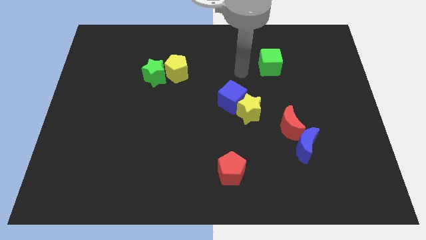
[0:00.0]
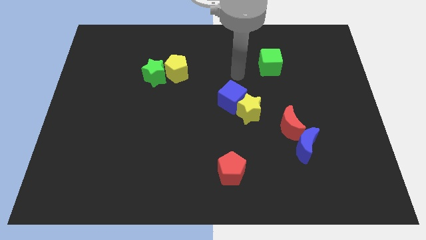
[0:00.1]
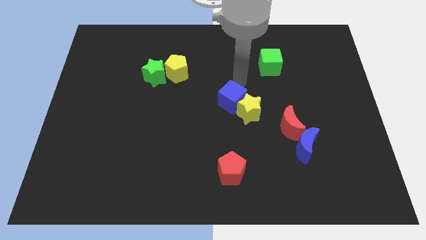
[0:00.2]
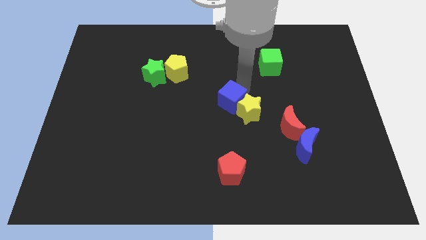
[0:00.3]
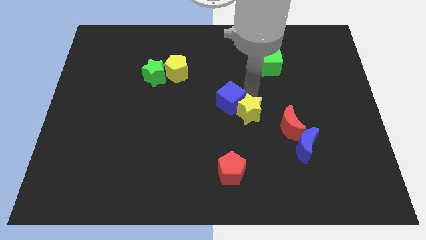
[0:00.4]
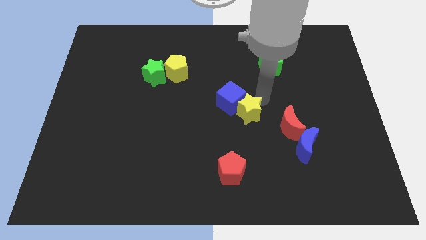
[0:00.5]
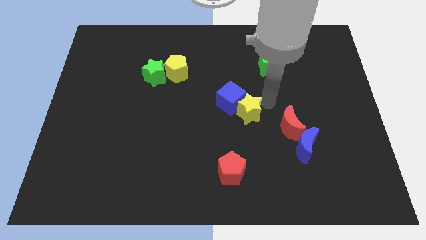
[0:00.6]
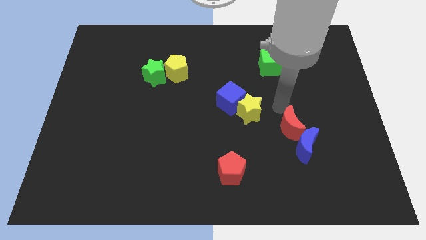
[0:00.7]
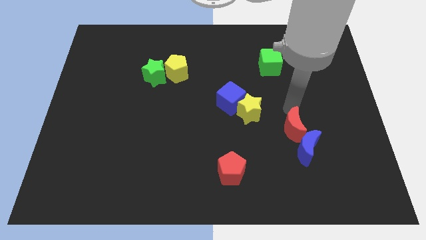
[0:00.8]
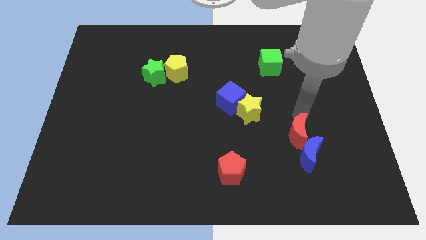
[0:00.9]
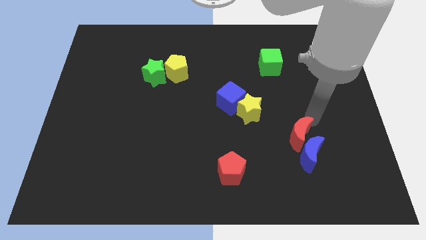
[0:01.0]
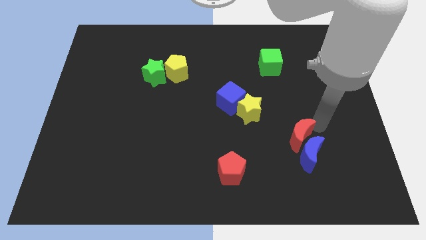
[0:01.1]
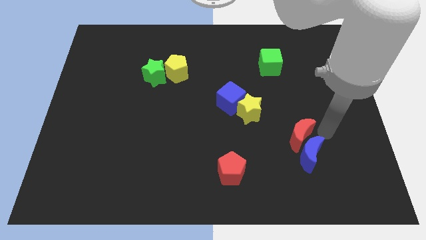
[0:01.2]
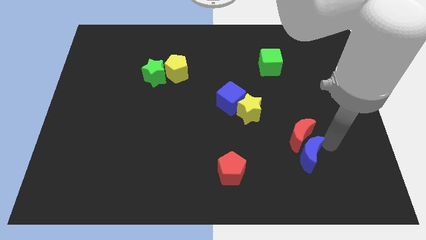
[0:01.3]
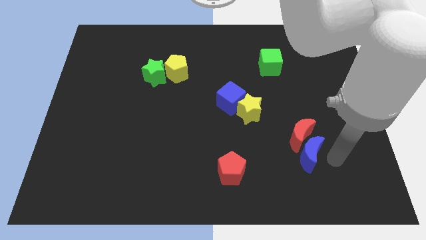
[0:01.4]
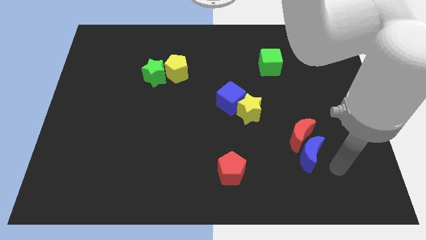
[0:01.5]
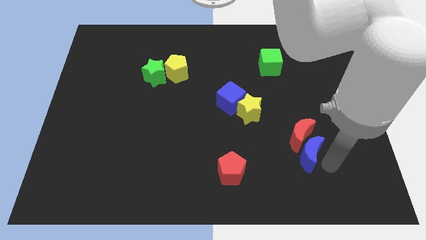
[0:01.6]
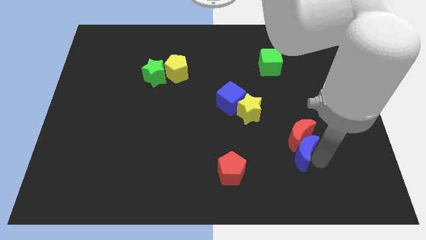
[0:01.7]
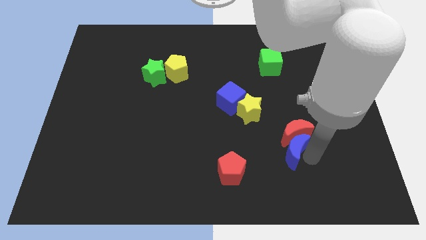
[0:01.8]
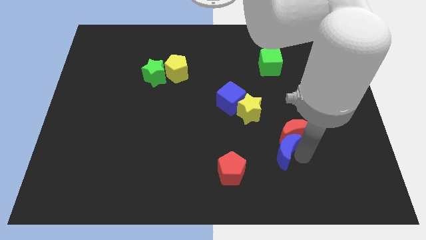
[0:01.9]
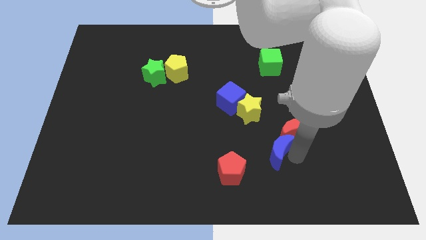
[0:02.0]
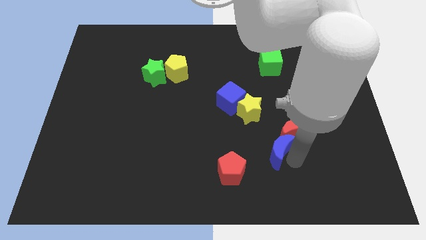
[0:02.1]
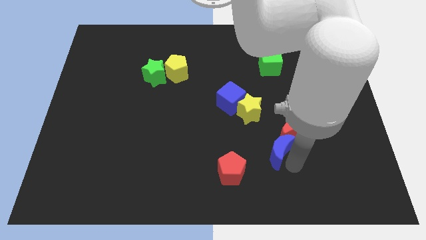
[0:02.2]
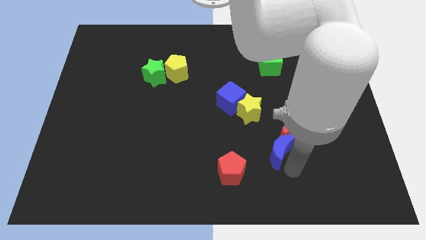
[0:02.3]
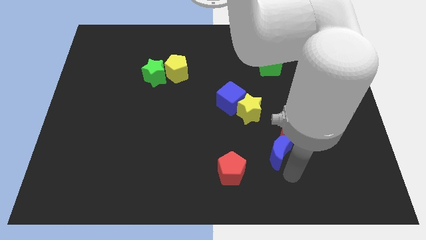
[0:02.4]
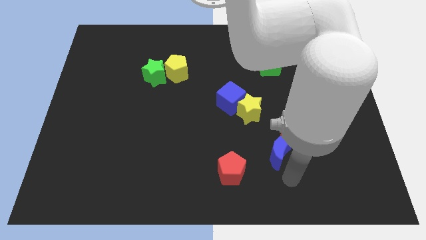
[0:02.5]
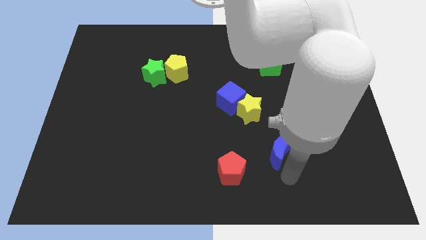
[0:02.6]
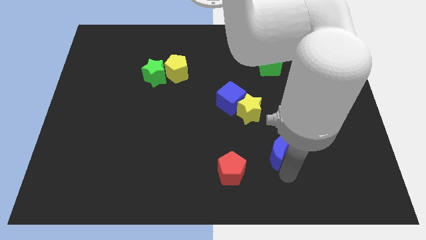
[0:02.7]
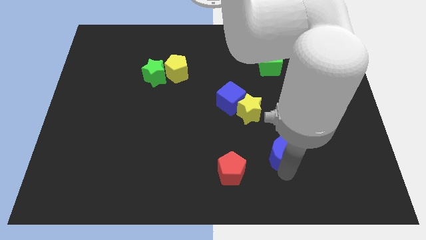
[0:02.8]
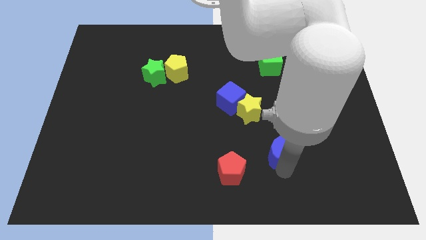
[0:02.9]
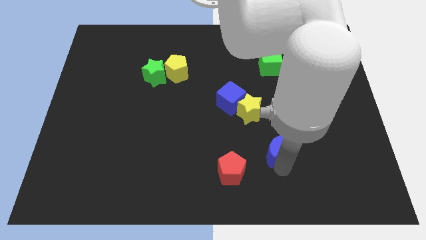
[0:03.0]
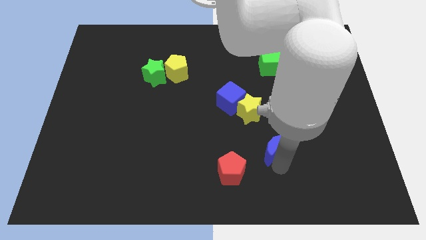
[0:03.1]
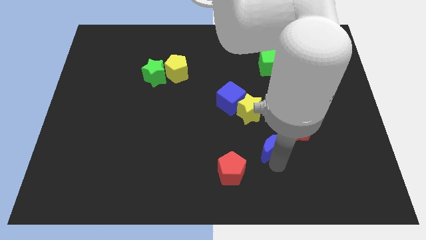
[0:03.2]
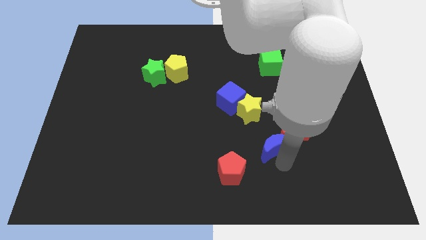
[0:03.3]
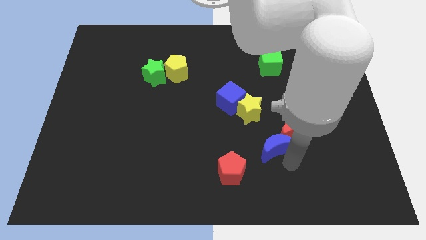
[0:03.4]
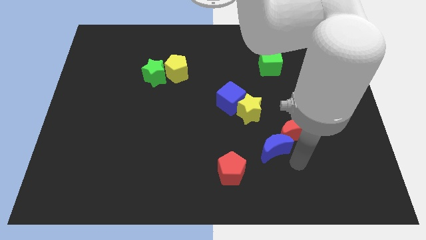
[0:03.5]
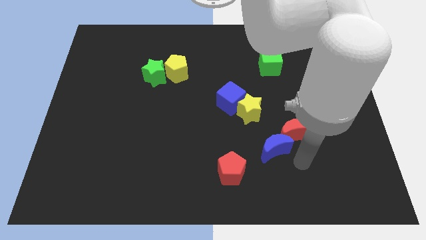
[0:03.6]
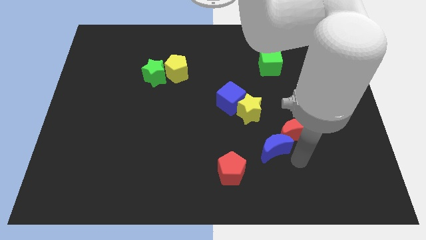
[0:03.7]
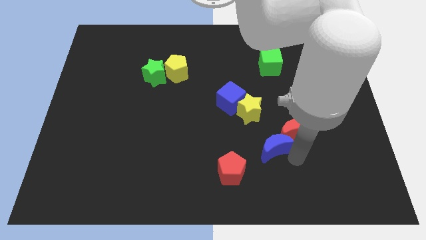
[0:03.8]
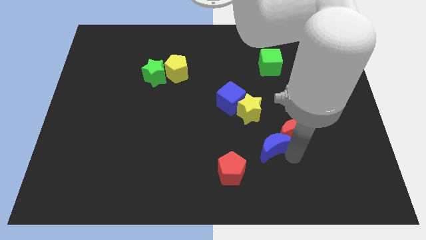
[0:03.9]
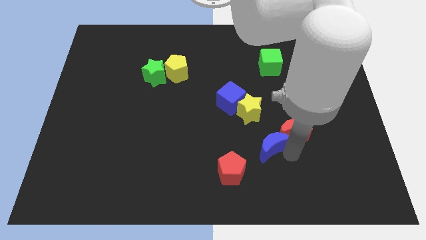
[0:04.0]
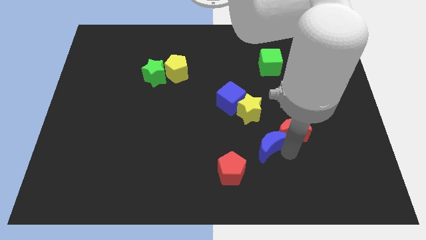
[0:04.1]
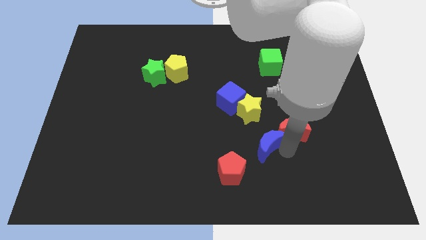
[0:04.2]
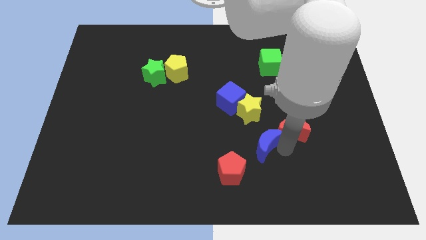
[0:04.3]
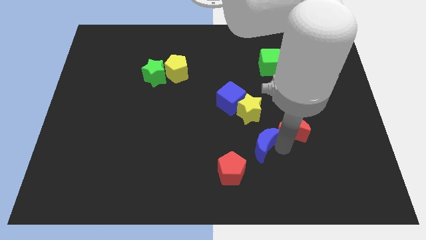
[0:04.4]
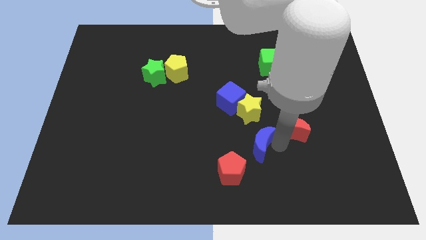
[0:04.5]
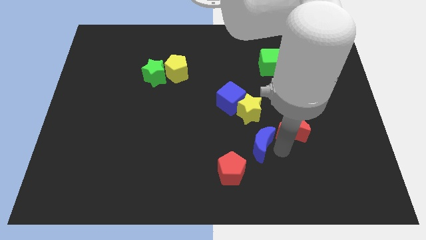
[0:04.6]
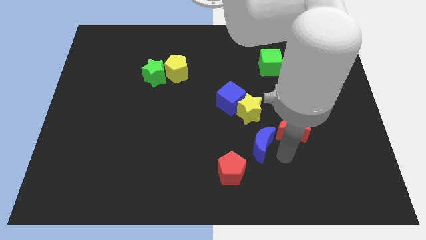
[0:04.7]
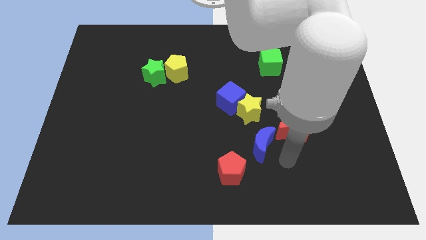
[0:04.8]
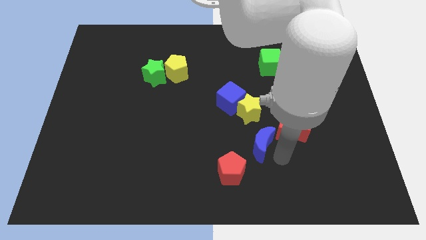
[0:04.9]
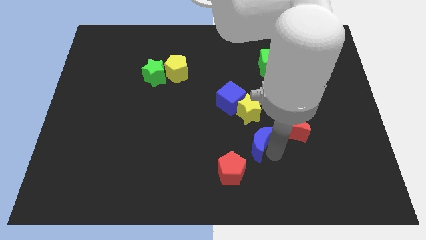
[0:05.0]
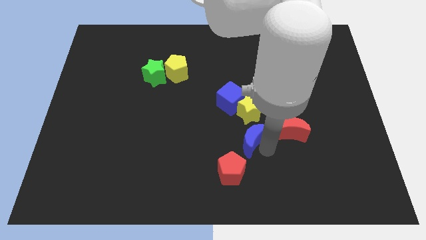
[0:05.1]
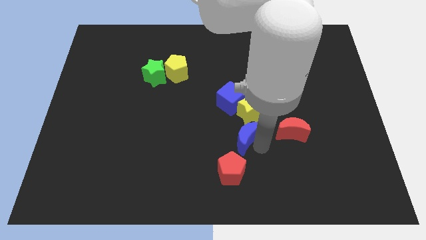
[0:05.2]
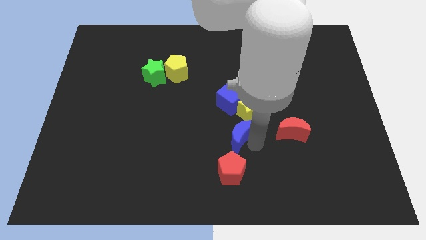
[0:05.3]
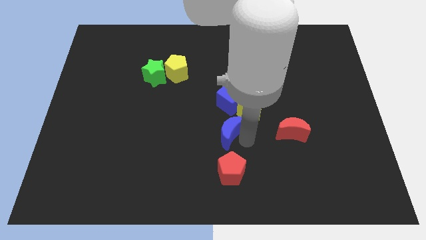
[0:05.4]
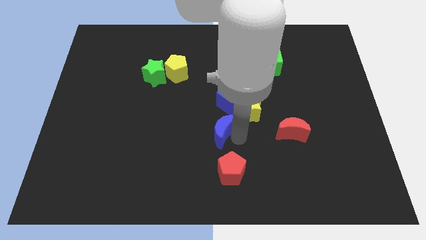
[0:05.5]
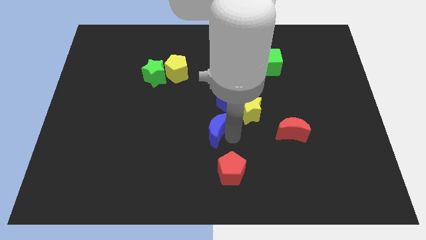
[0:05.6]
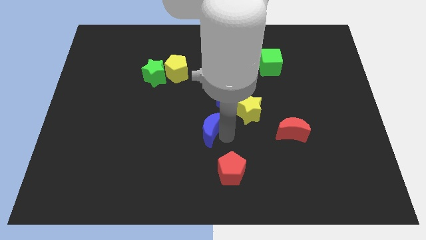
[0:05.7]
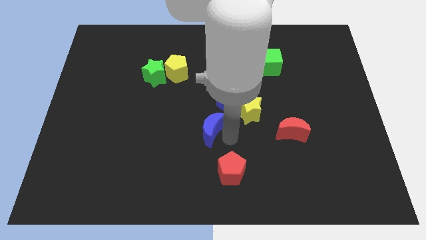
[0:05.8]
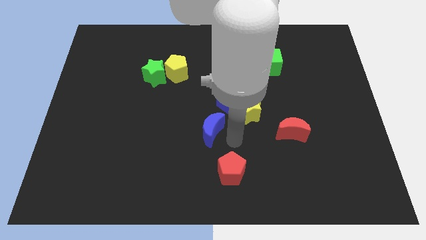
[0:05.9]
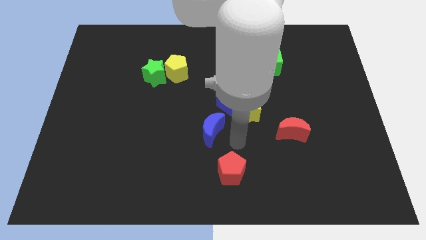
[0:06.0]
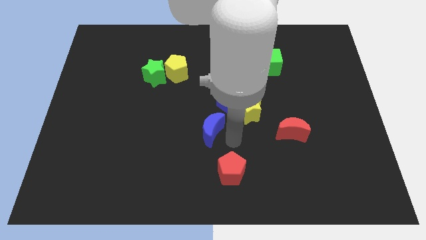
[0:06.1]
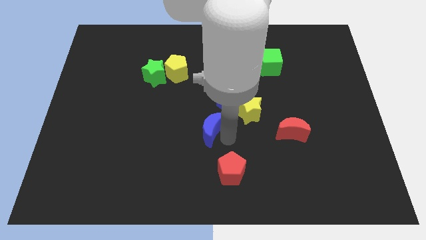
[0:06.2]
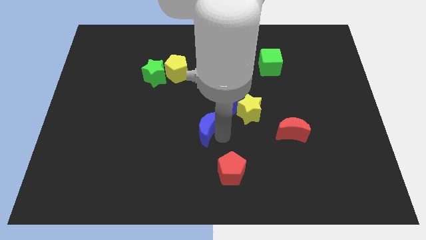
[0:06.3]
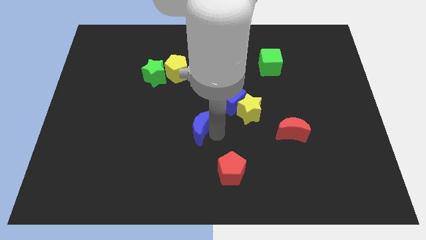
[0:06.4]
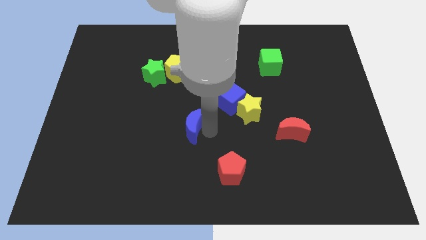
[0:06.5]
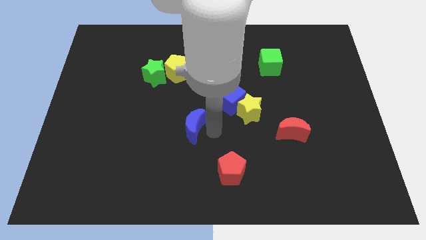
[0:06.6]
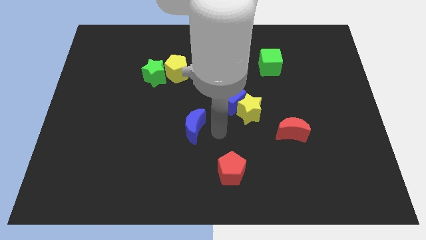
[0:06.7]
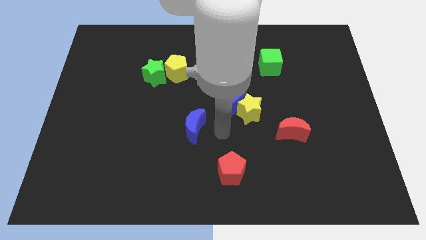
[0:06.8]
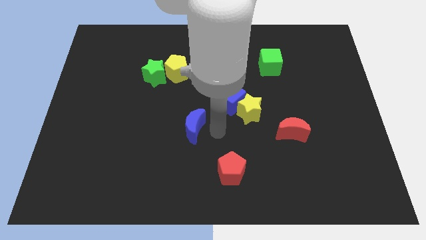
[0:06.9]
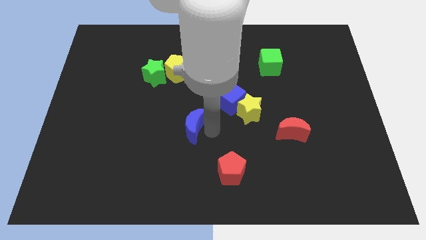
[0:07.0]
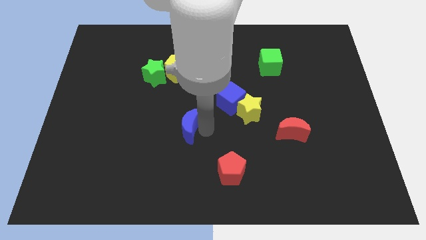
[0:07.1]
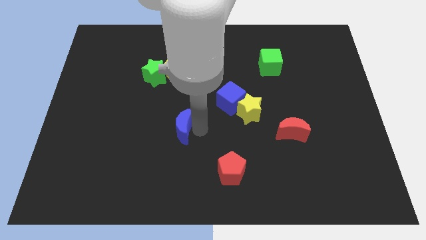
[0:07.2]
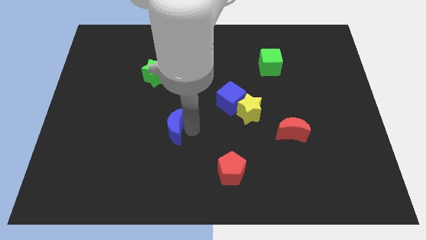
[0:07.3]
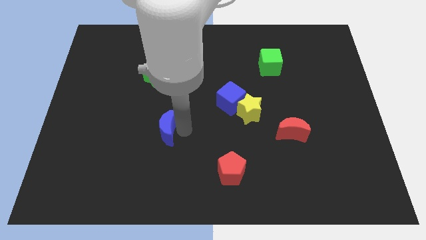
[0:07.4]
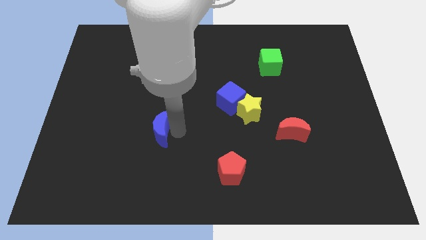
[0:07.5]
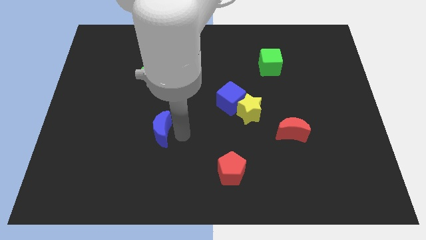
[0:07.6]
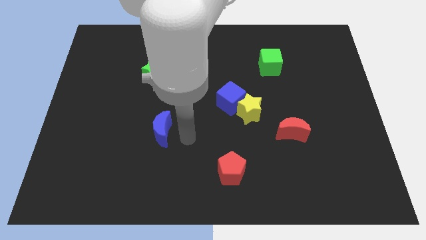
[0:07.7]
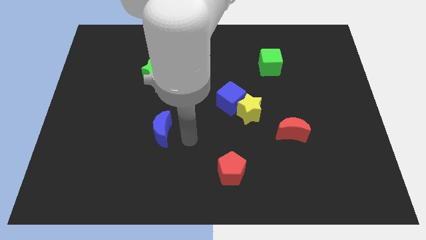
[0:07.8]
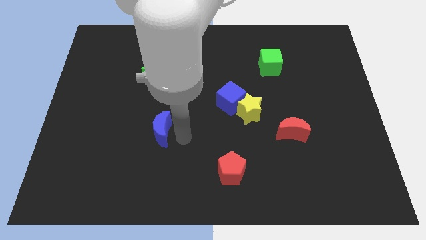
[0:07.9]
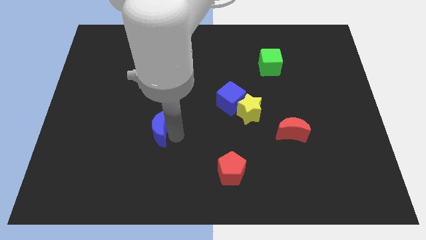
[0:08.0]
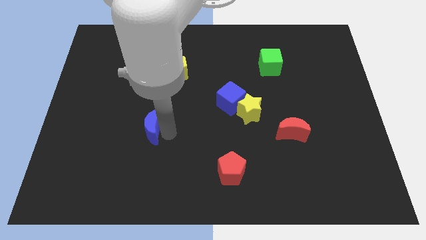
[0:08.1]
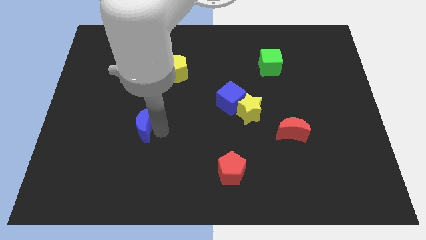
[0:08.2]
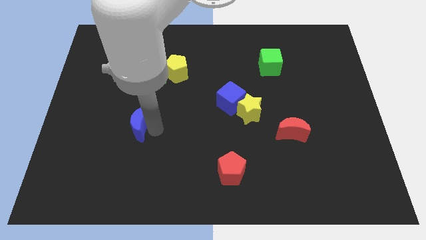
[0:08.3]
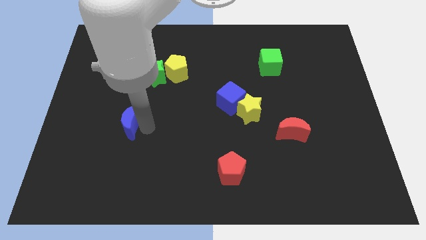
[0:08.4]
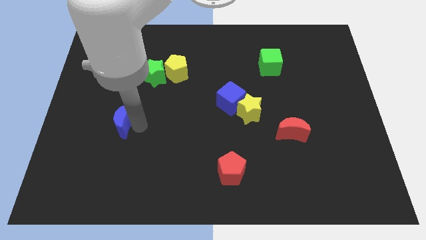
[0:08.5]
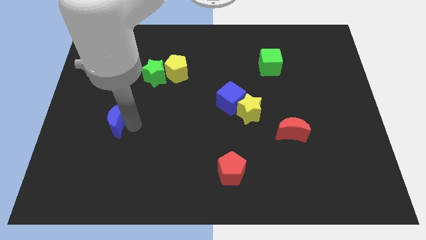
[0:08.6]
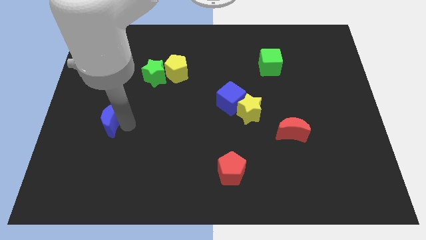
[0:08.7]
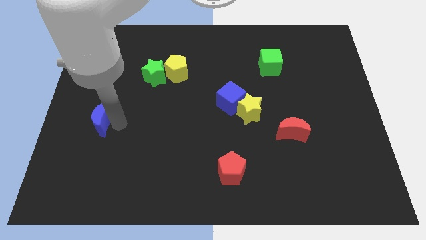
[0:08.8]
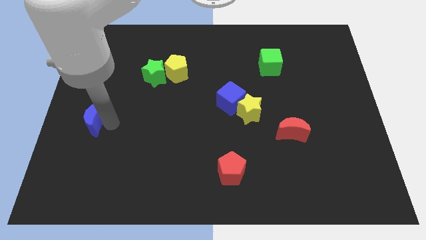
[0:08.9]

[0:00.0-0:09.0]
push the blue moon to the left side of the board
